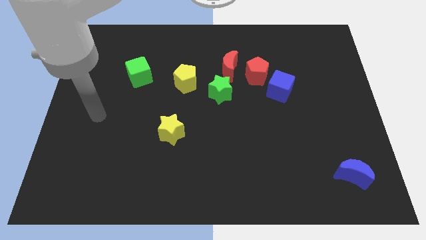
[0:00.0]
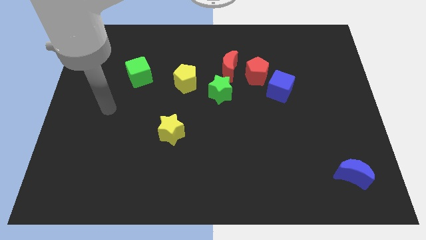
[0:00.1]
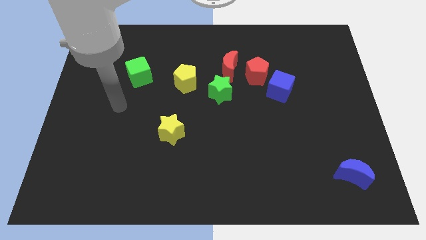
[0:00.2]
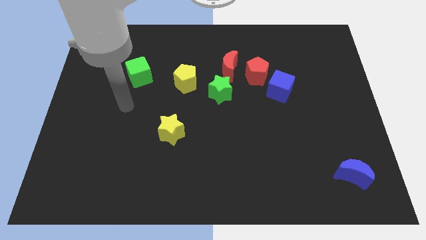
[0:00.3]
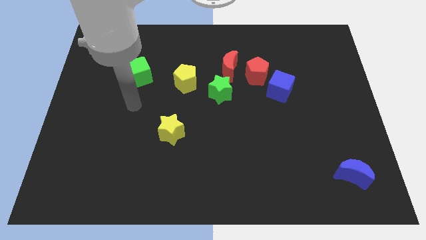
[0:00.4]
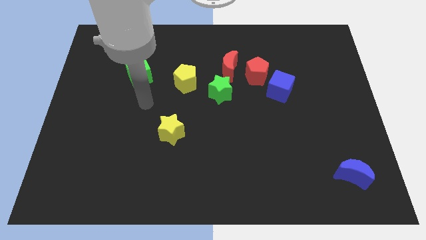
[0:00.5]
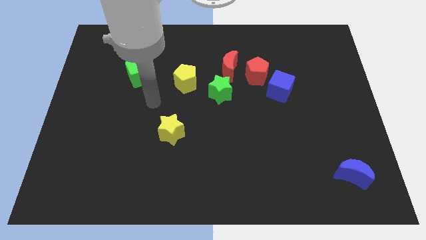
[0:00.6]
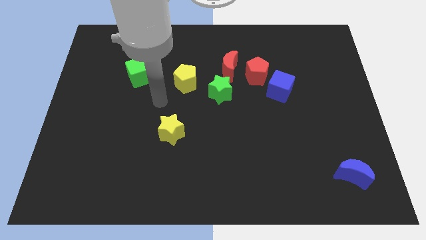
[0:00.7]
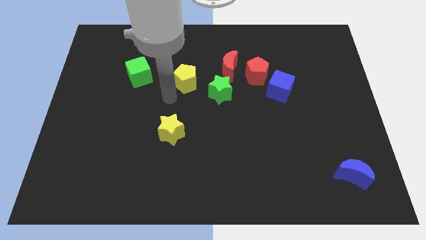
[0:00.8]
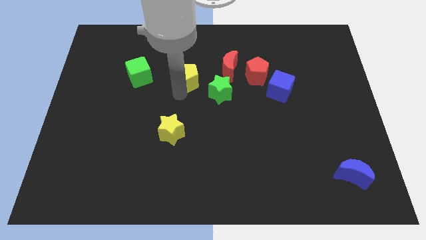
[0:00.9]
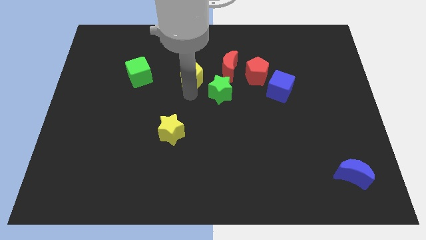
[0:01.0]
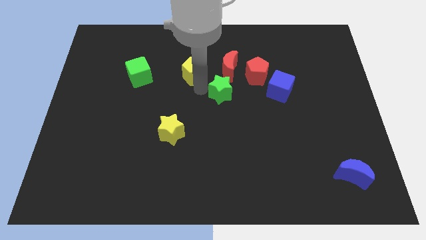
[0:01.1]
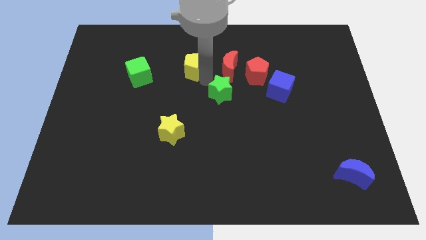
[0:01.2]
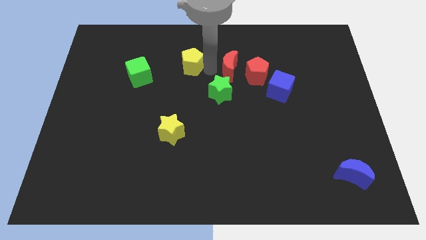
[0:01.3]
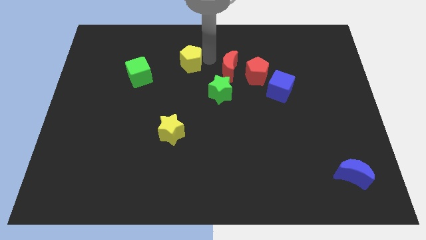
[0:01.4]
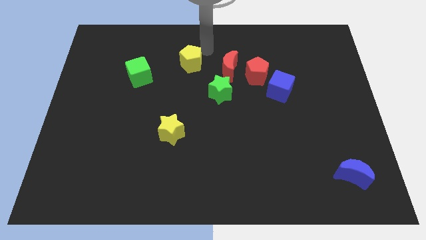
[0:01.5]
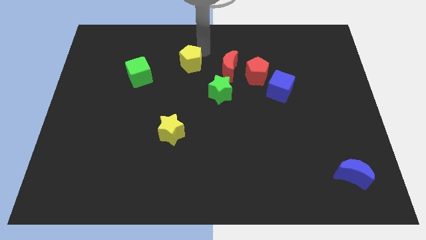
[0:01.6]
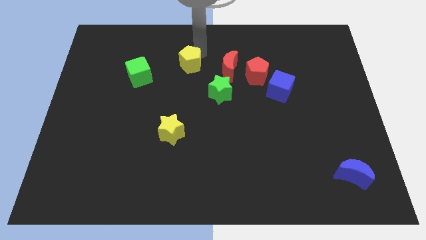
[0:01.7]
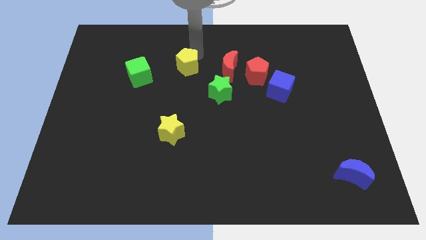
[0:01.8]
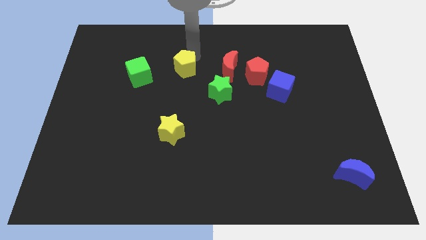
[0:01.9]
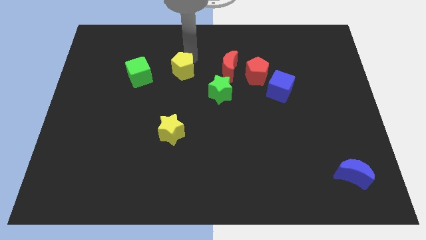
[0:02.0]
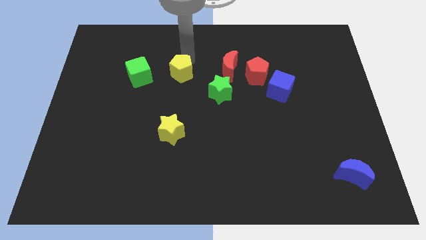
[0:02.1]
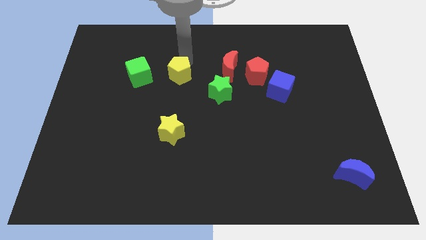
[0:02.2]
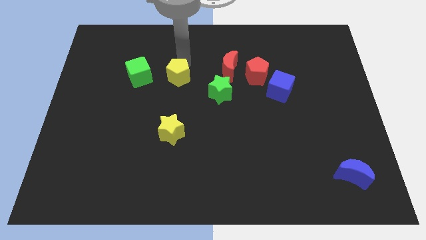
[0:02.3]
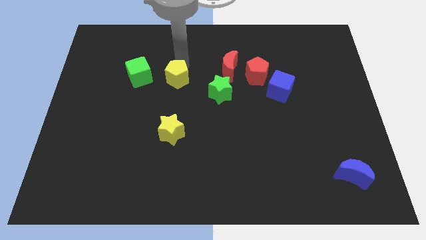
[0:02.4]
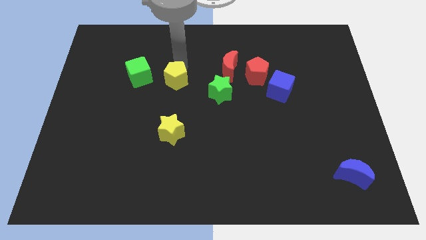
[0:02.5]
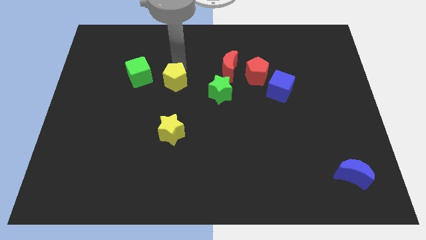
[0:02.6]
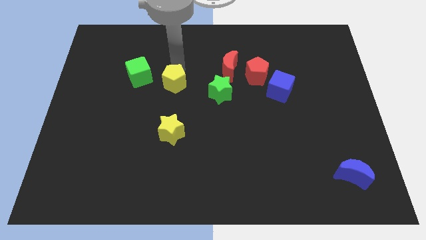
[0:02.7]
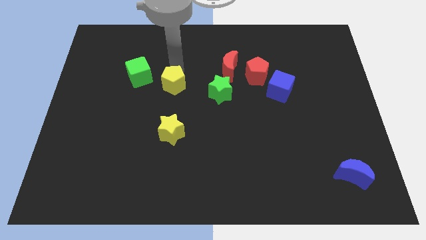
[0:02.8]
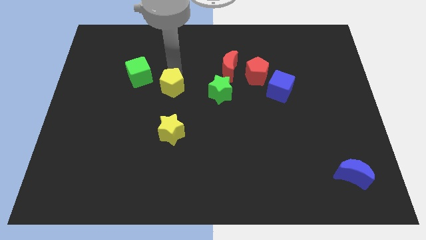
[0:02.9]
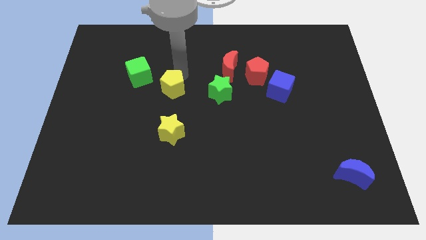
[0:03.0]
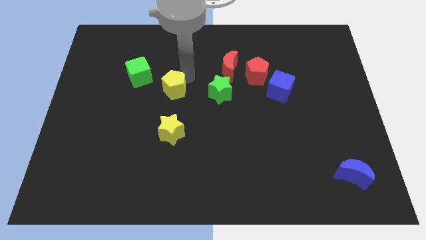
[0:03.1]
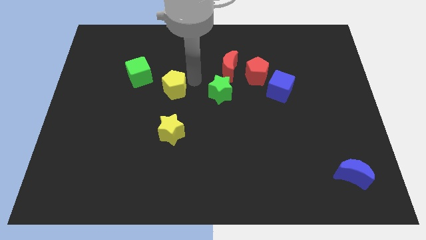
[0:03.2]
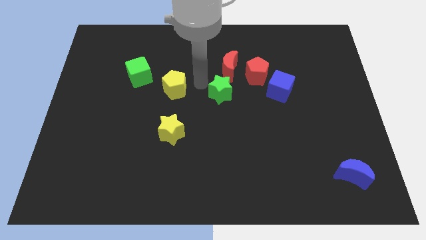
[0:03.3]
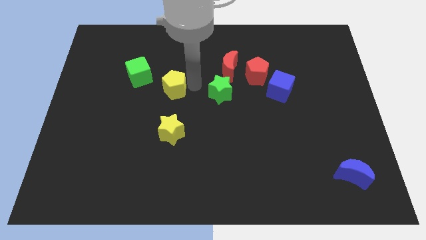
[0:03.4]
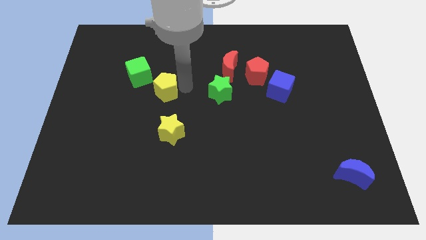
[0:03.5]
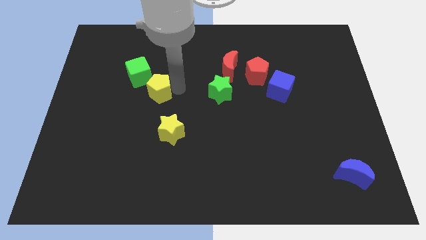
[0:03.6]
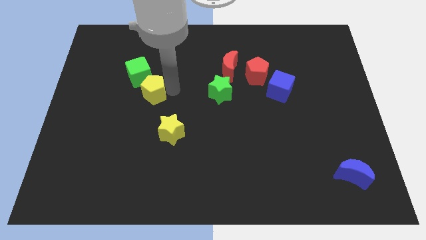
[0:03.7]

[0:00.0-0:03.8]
slide the yellow pentagon to the left a little bit

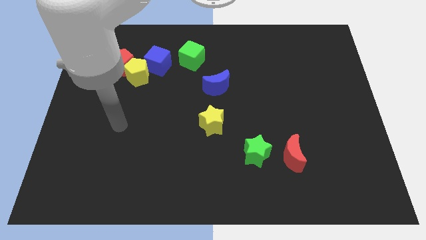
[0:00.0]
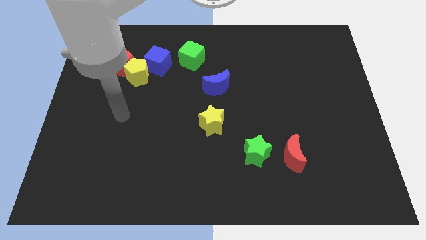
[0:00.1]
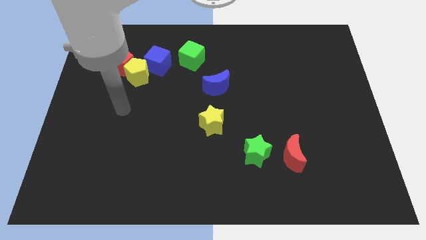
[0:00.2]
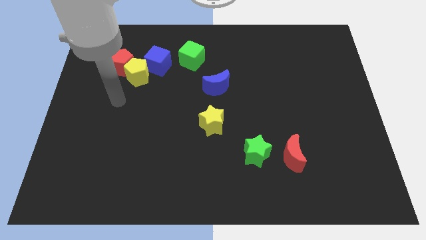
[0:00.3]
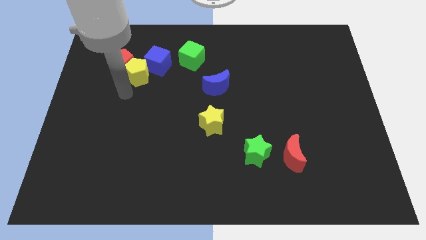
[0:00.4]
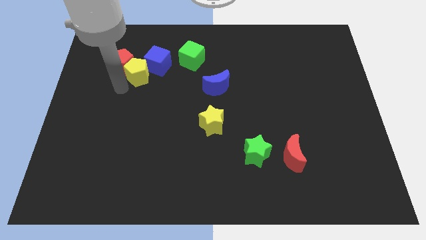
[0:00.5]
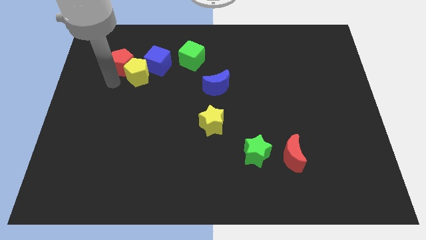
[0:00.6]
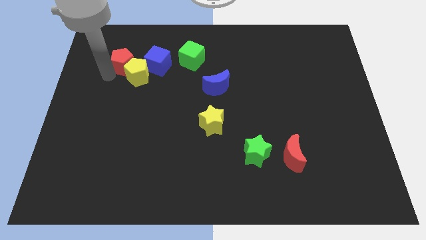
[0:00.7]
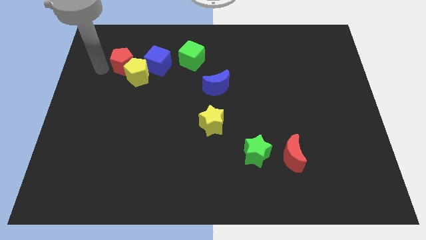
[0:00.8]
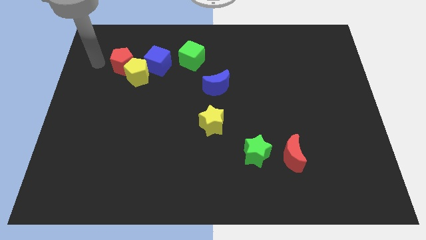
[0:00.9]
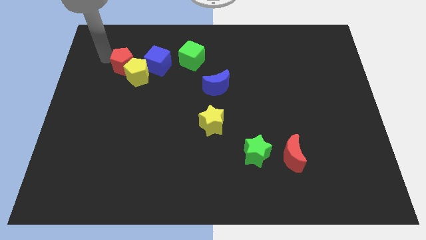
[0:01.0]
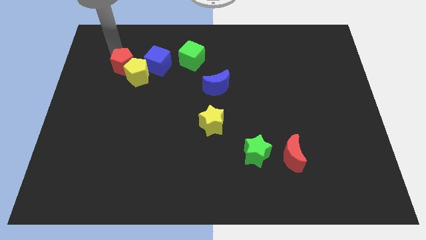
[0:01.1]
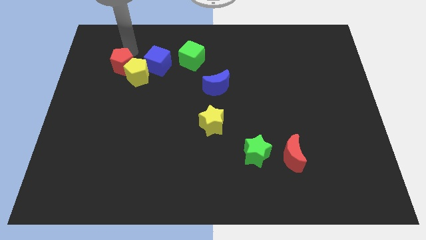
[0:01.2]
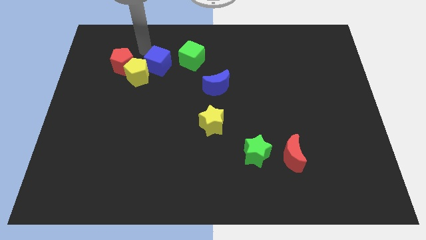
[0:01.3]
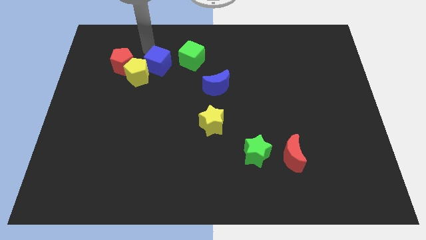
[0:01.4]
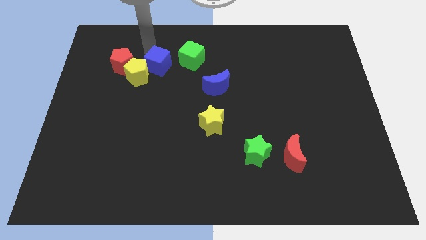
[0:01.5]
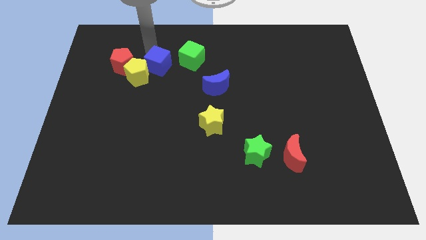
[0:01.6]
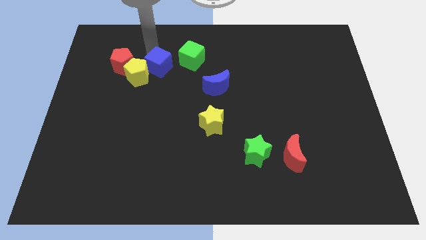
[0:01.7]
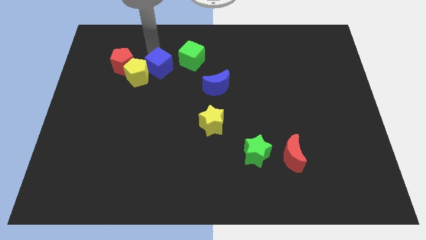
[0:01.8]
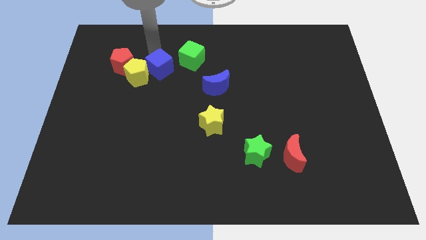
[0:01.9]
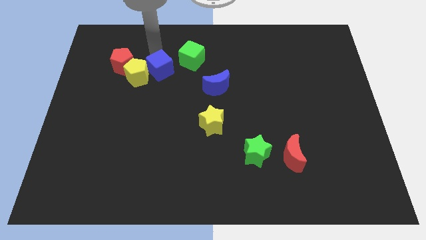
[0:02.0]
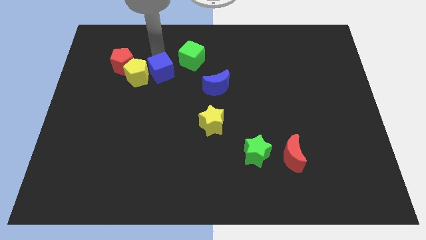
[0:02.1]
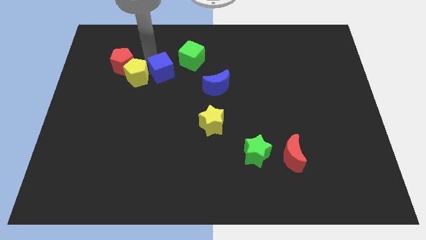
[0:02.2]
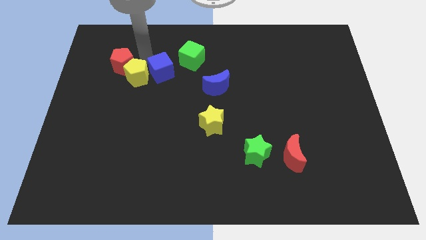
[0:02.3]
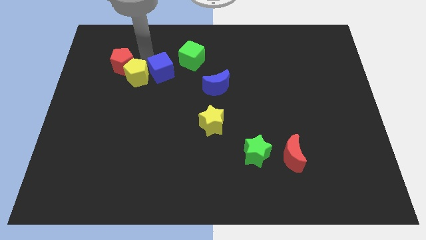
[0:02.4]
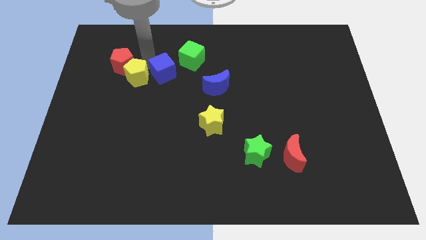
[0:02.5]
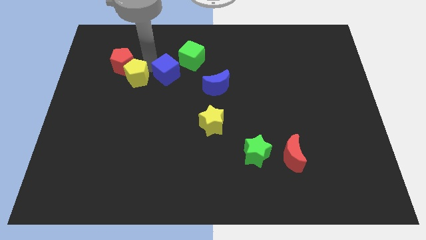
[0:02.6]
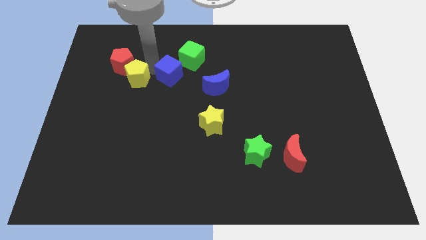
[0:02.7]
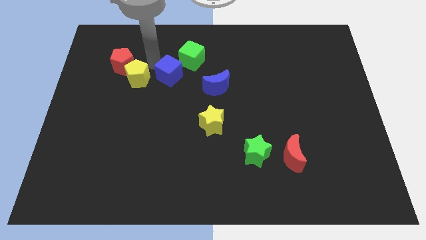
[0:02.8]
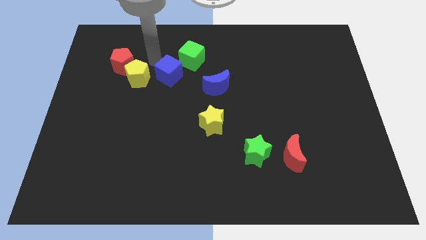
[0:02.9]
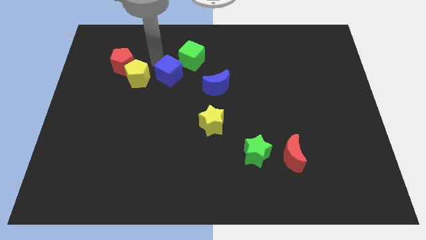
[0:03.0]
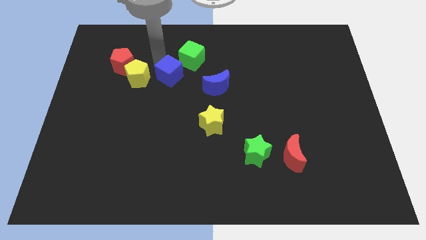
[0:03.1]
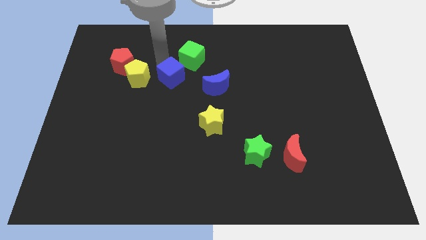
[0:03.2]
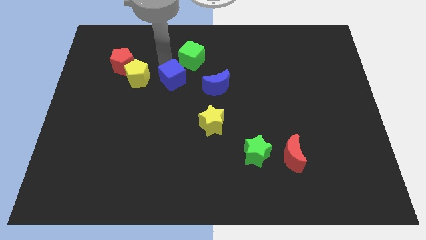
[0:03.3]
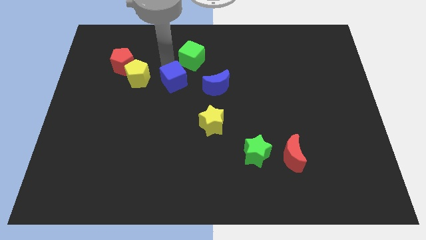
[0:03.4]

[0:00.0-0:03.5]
slightly slide the blue cube down and to the right diagonally

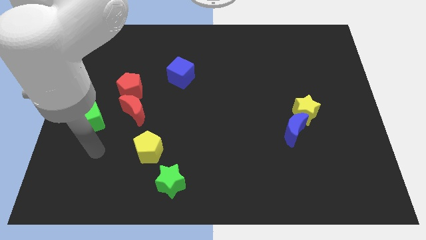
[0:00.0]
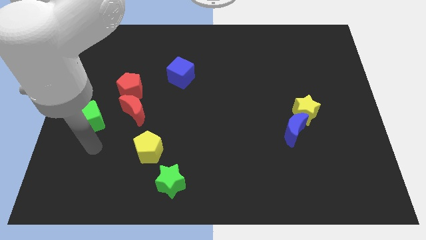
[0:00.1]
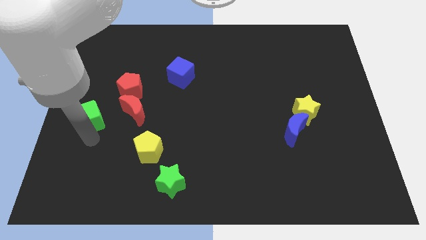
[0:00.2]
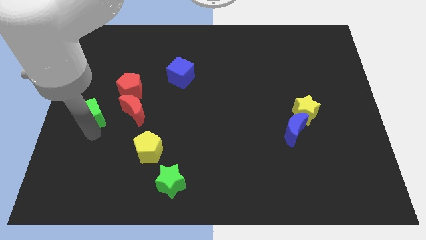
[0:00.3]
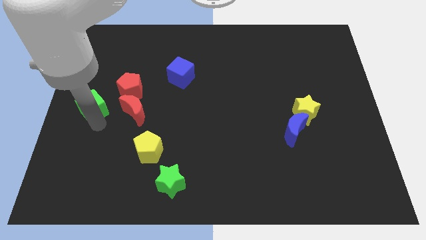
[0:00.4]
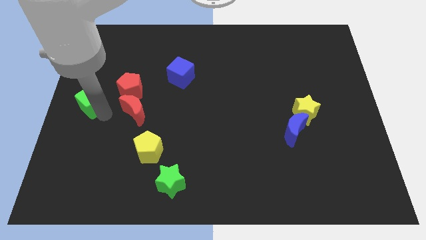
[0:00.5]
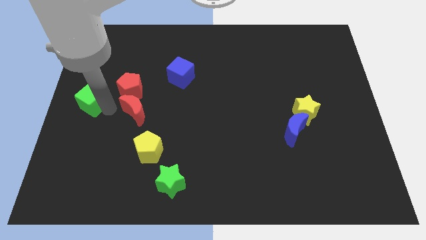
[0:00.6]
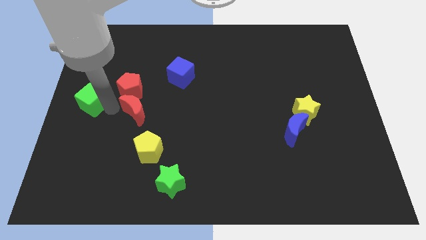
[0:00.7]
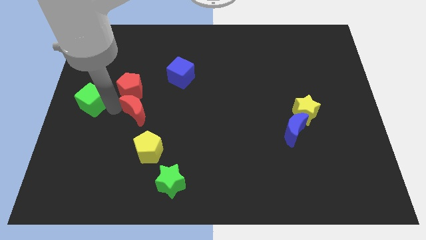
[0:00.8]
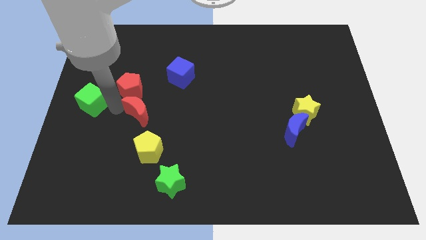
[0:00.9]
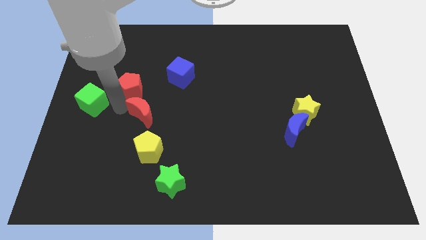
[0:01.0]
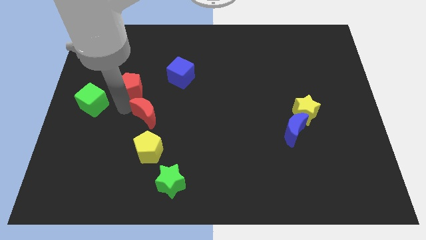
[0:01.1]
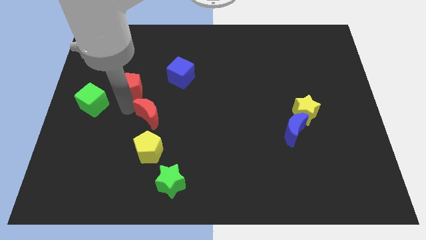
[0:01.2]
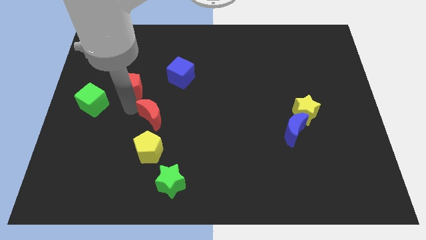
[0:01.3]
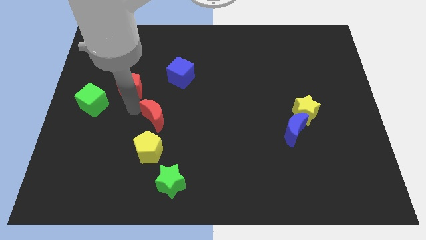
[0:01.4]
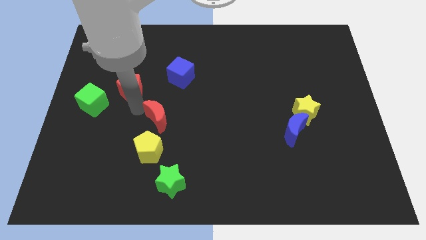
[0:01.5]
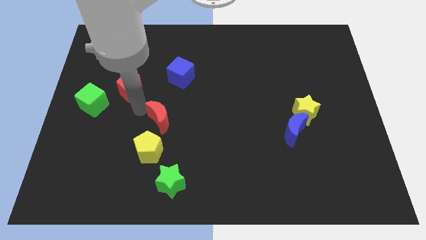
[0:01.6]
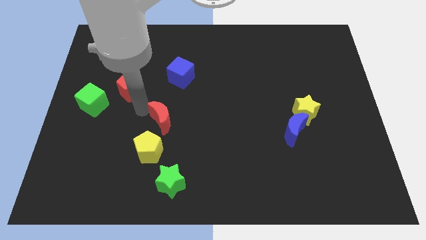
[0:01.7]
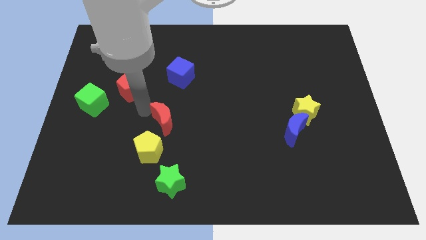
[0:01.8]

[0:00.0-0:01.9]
slightly push the red moon to the right
